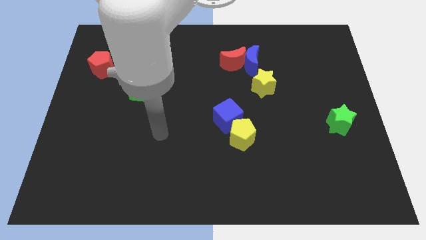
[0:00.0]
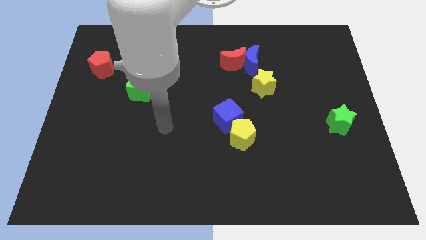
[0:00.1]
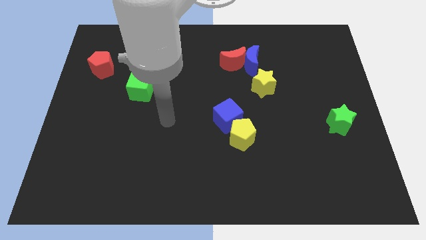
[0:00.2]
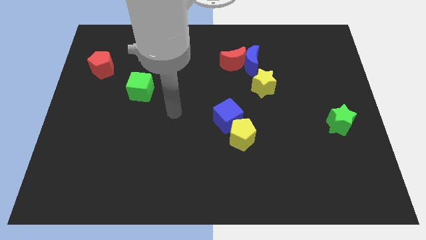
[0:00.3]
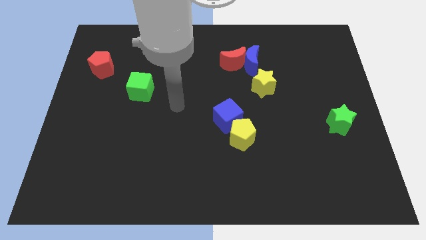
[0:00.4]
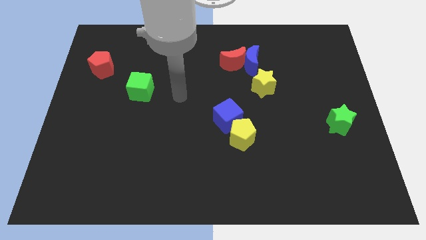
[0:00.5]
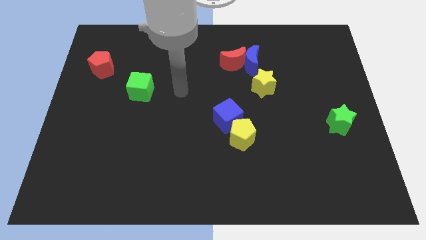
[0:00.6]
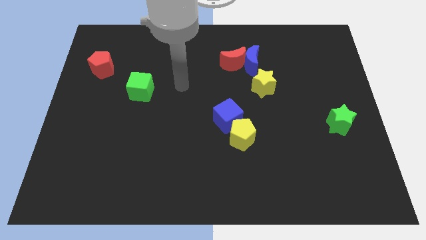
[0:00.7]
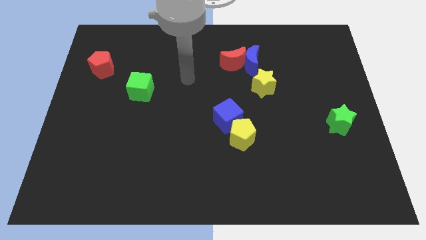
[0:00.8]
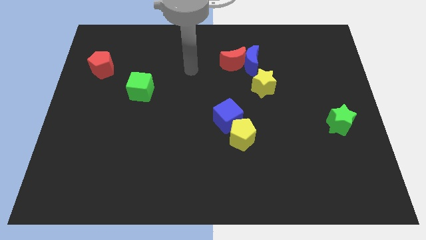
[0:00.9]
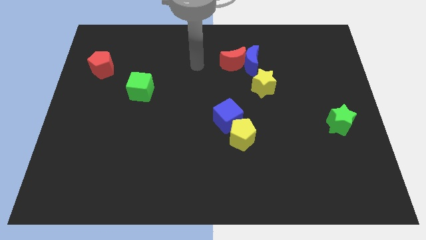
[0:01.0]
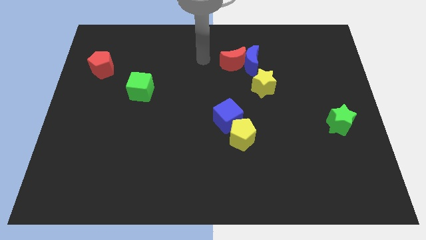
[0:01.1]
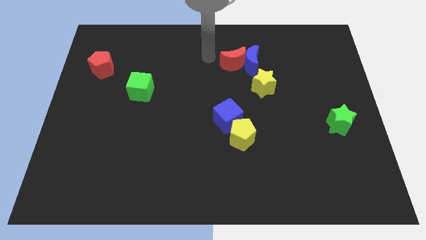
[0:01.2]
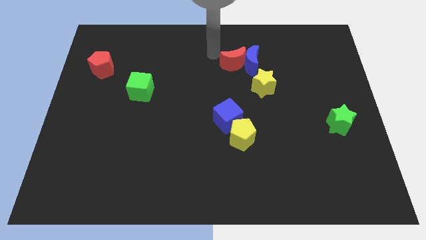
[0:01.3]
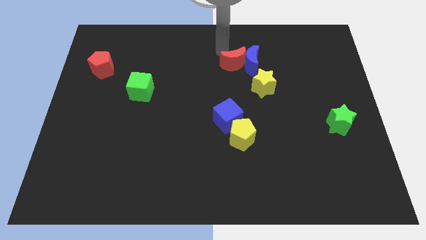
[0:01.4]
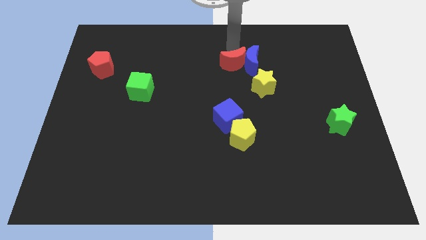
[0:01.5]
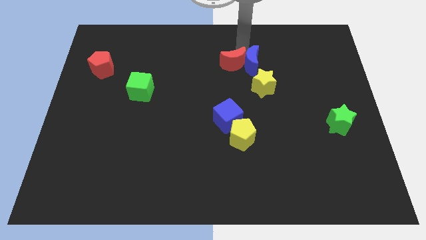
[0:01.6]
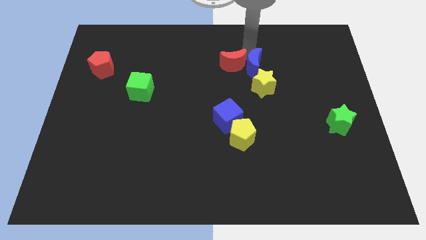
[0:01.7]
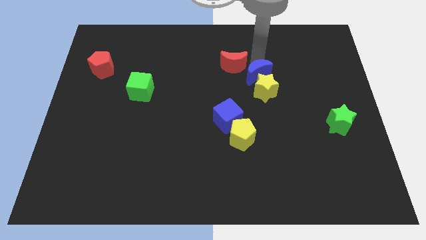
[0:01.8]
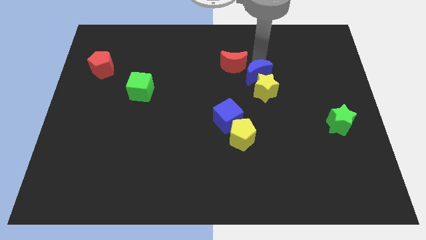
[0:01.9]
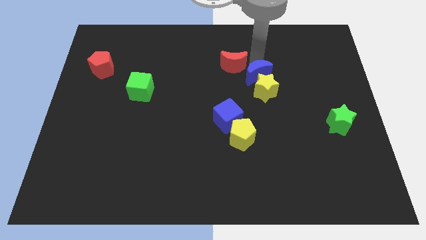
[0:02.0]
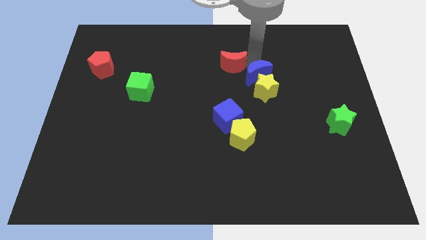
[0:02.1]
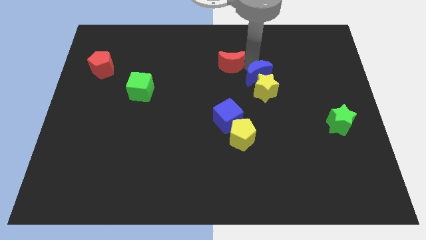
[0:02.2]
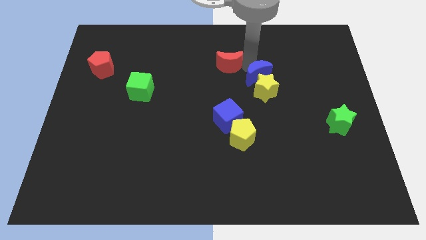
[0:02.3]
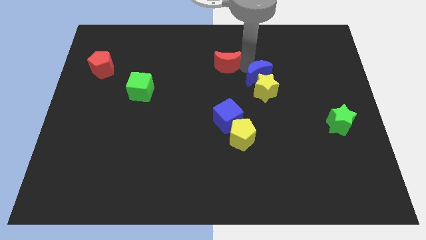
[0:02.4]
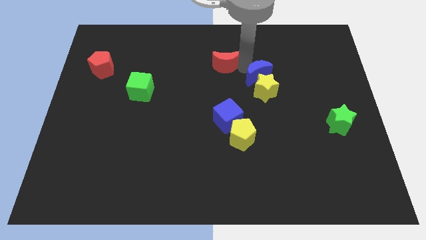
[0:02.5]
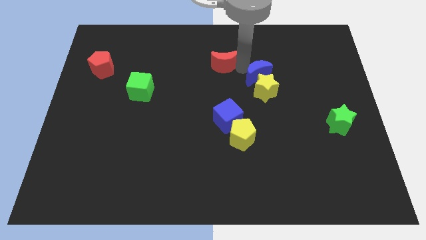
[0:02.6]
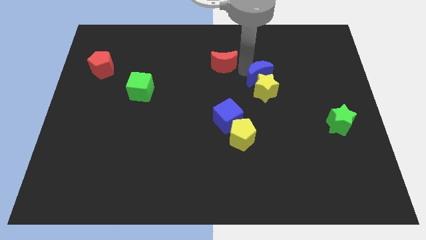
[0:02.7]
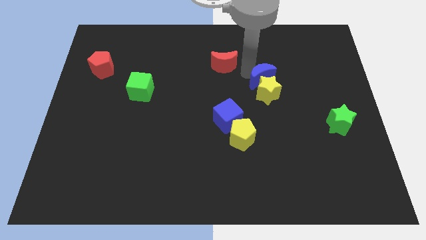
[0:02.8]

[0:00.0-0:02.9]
move the red moon away from the blue moon

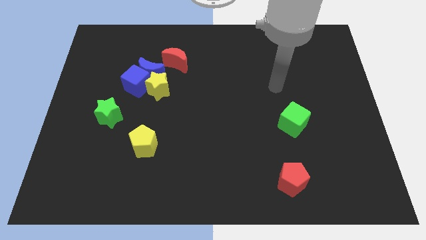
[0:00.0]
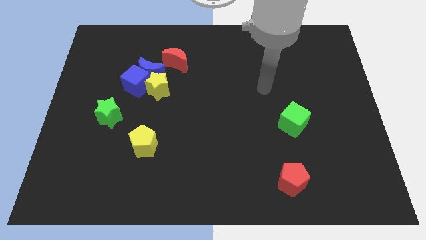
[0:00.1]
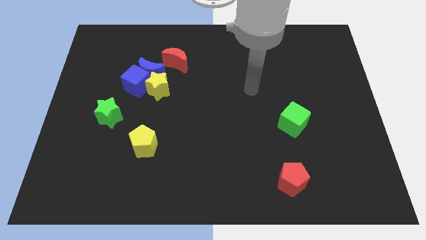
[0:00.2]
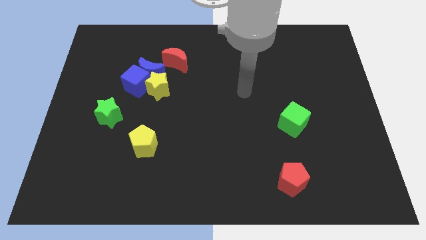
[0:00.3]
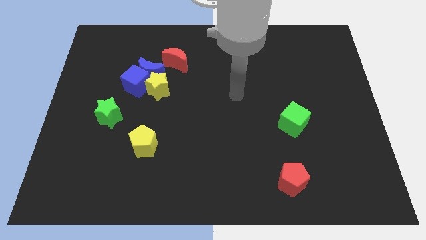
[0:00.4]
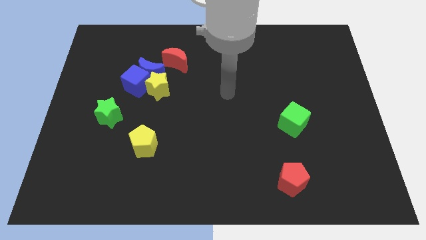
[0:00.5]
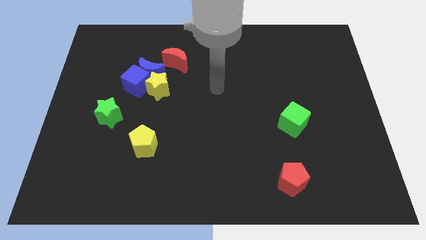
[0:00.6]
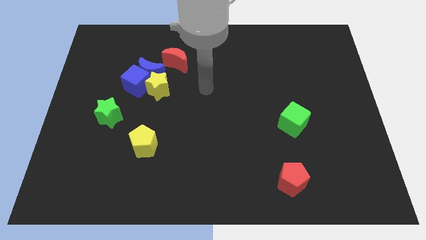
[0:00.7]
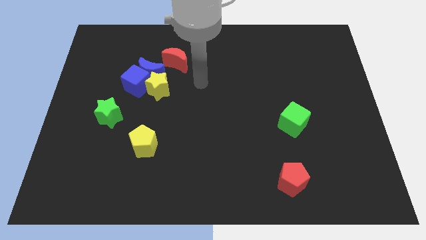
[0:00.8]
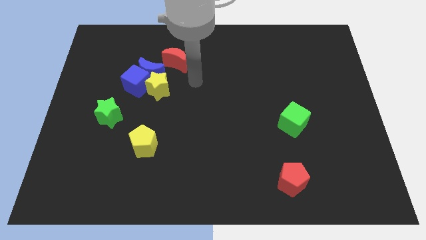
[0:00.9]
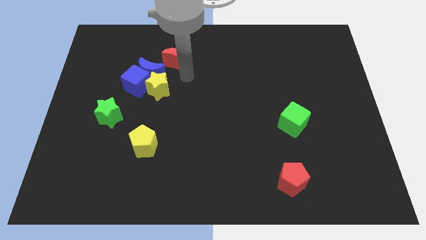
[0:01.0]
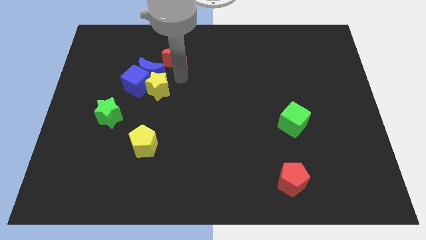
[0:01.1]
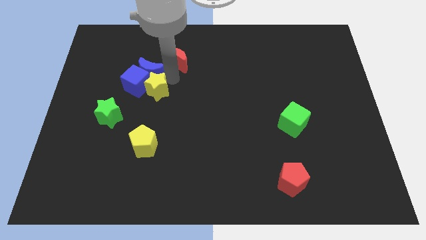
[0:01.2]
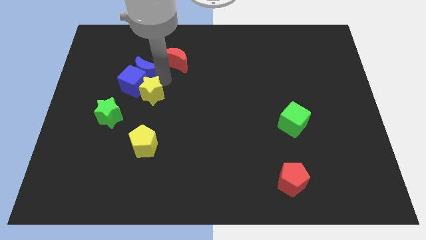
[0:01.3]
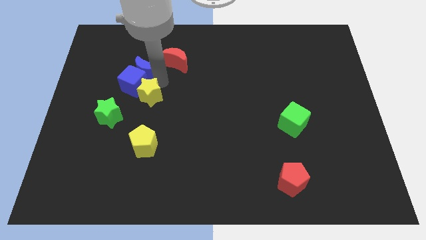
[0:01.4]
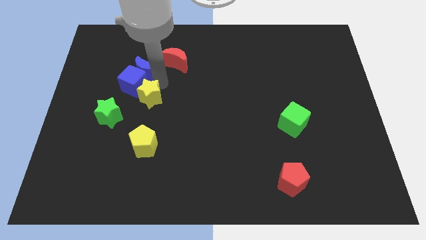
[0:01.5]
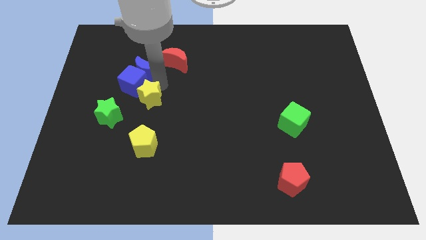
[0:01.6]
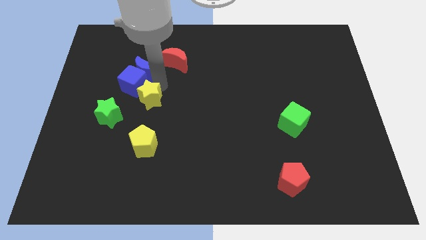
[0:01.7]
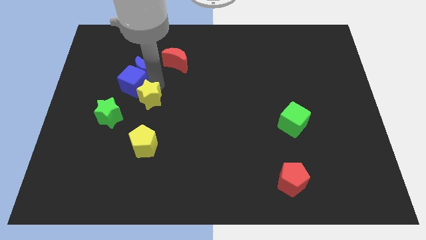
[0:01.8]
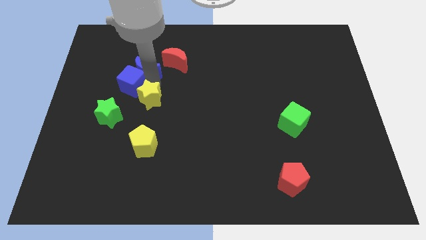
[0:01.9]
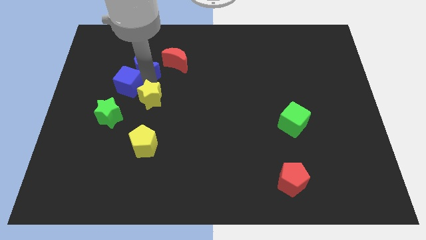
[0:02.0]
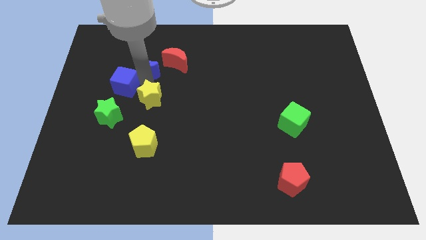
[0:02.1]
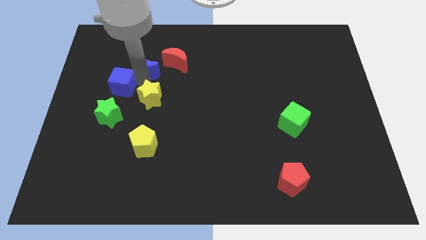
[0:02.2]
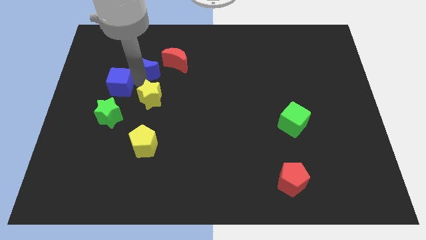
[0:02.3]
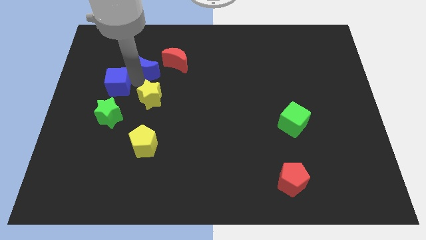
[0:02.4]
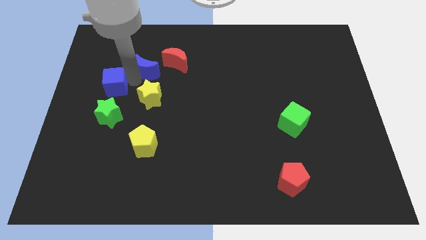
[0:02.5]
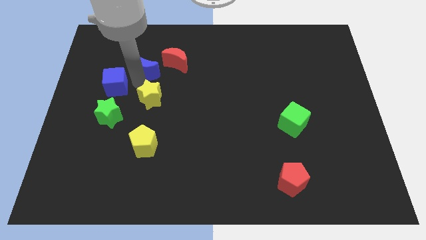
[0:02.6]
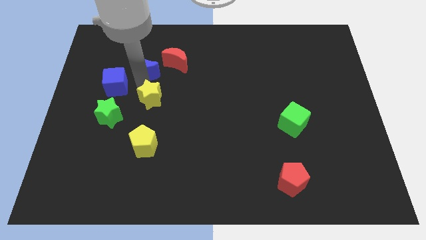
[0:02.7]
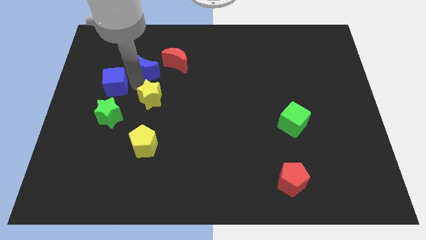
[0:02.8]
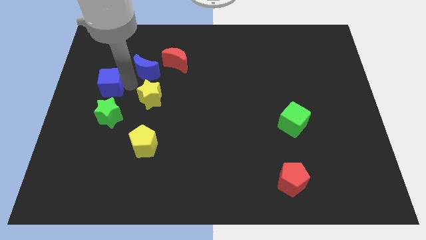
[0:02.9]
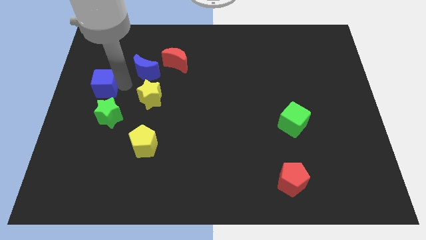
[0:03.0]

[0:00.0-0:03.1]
separate the blue cube from the blue moon and yellow star

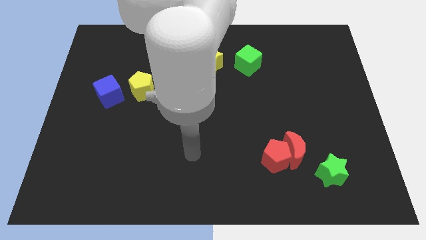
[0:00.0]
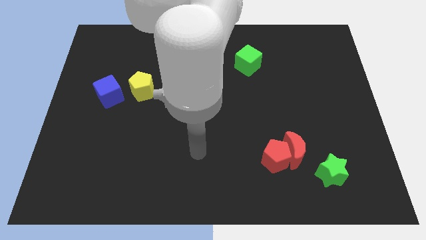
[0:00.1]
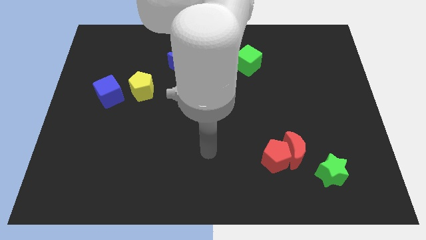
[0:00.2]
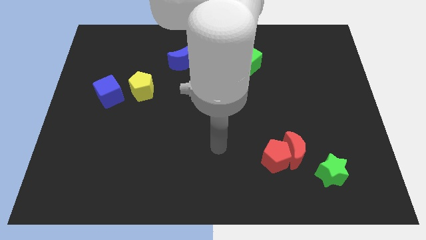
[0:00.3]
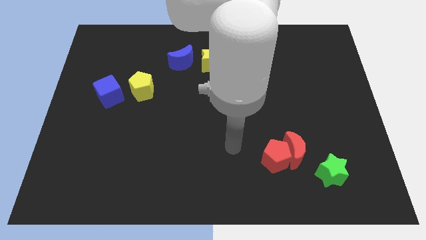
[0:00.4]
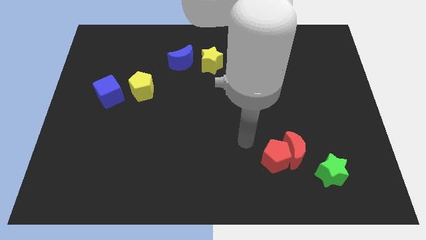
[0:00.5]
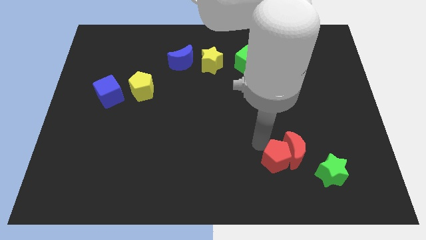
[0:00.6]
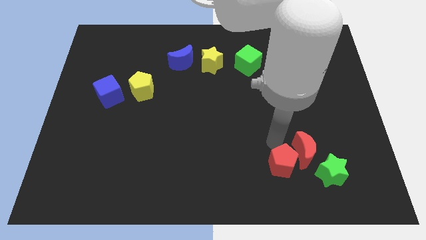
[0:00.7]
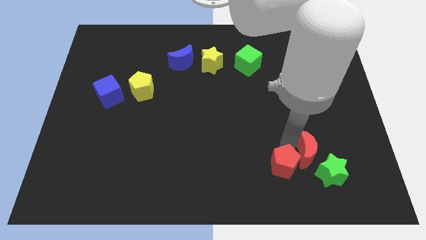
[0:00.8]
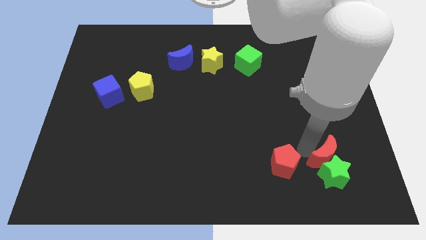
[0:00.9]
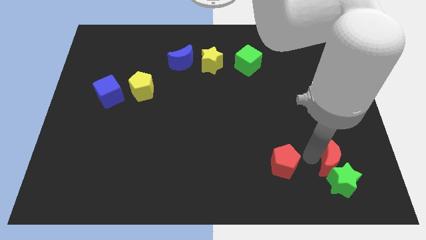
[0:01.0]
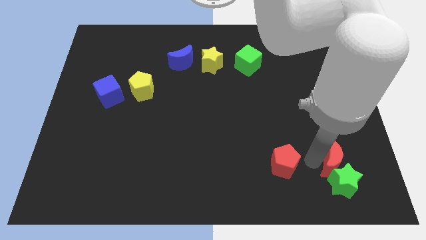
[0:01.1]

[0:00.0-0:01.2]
pull the red pentagon apart from the red moon

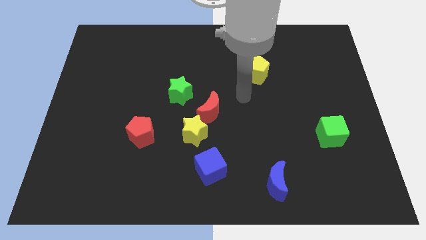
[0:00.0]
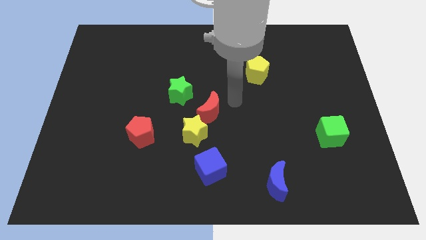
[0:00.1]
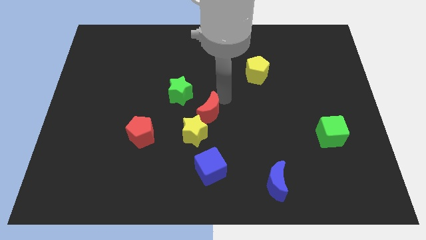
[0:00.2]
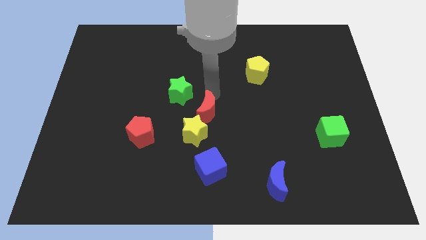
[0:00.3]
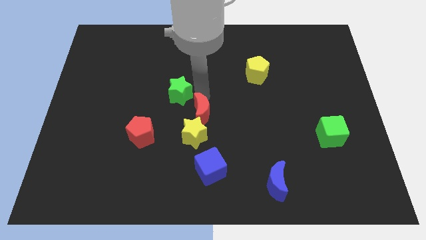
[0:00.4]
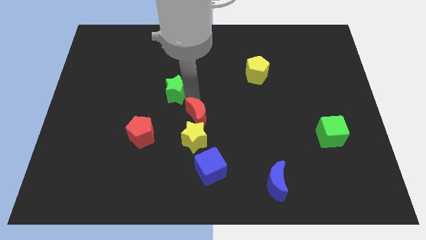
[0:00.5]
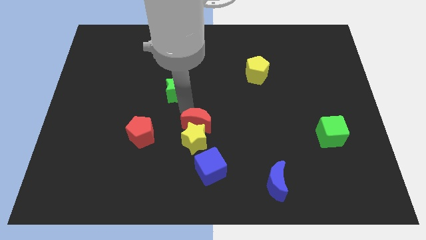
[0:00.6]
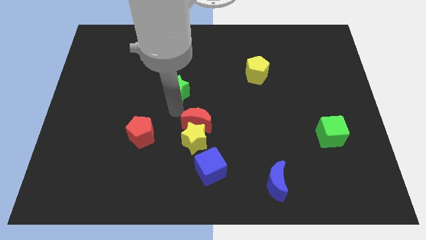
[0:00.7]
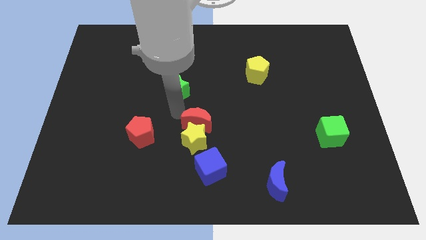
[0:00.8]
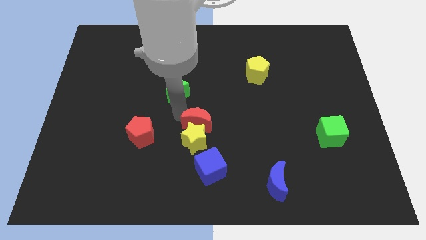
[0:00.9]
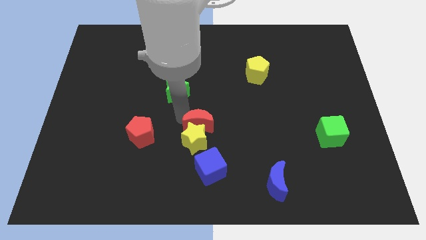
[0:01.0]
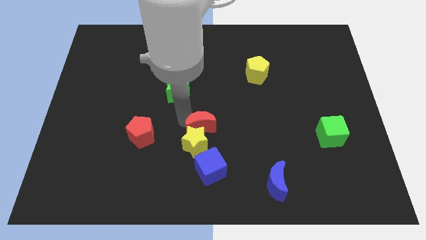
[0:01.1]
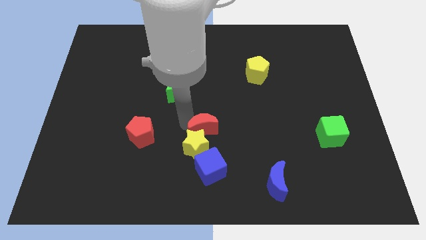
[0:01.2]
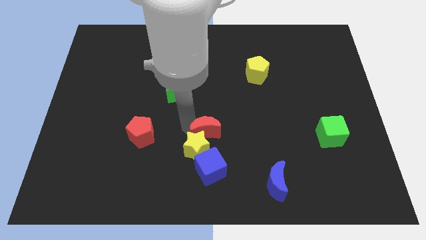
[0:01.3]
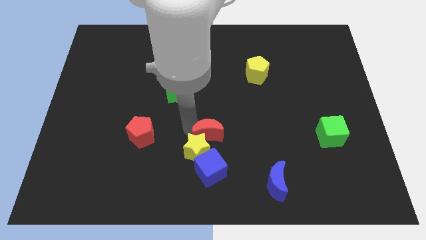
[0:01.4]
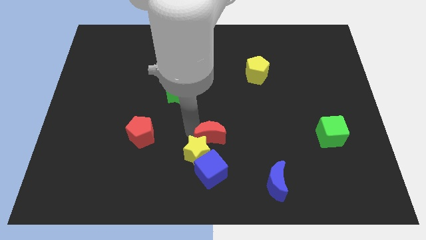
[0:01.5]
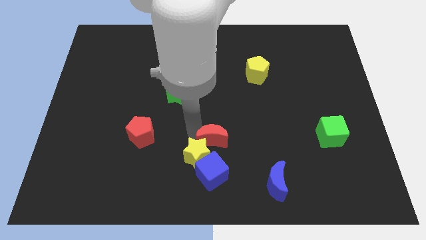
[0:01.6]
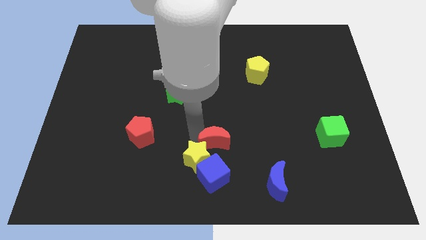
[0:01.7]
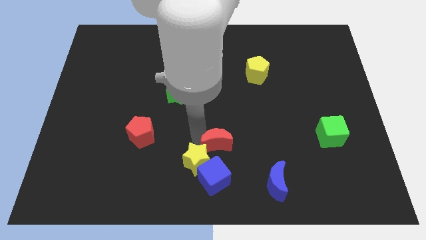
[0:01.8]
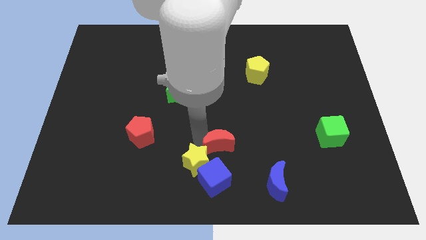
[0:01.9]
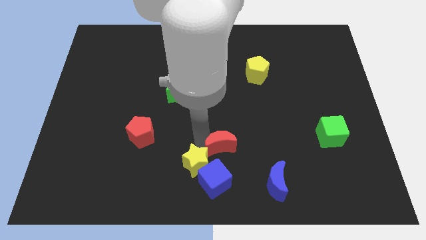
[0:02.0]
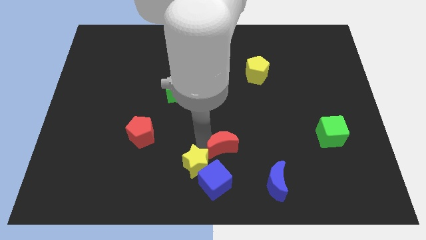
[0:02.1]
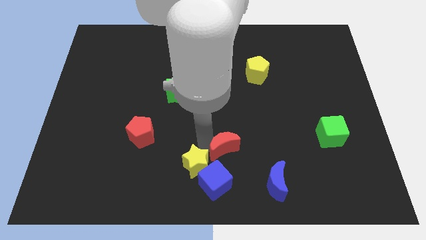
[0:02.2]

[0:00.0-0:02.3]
move the red moon away from the yellow star and green star
